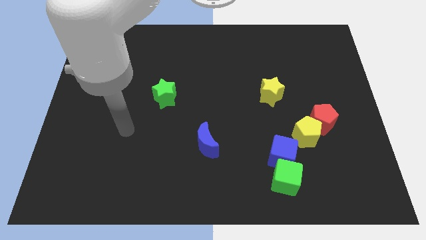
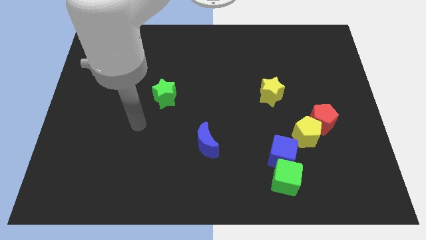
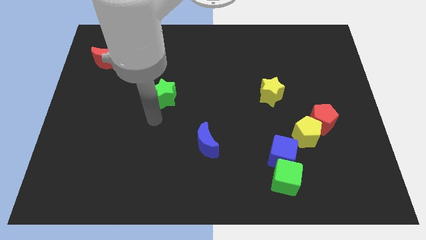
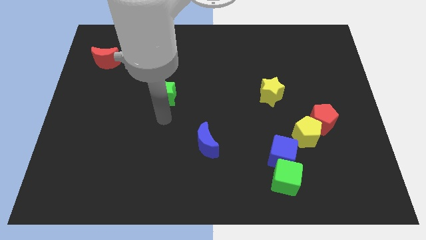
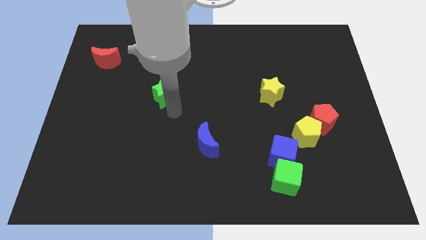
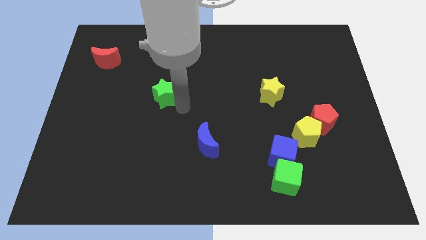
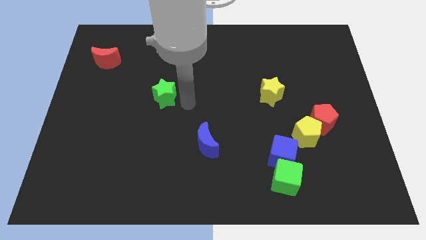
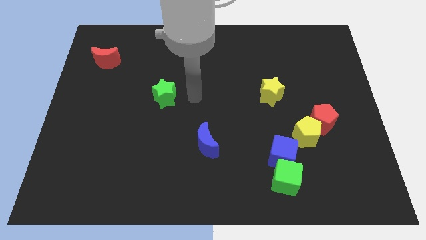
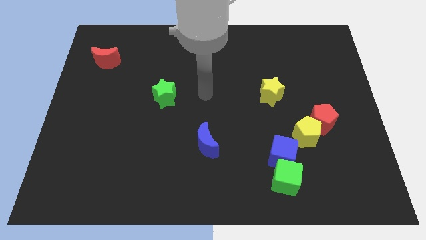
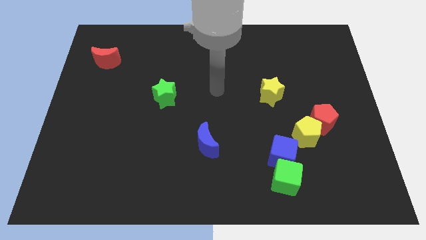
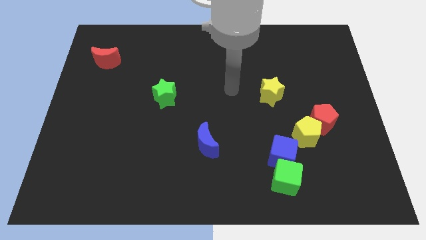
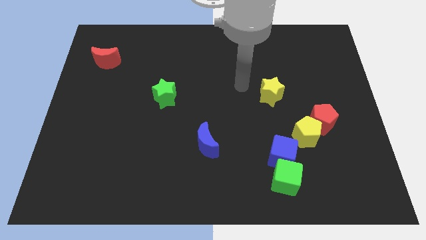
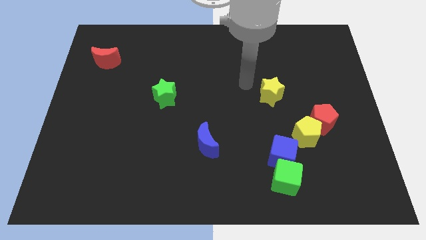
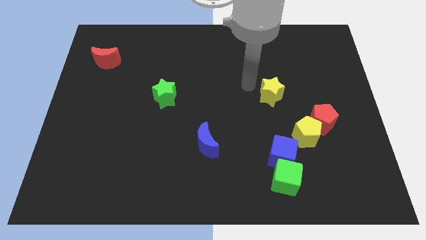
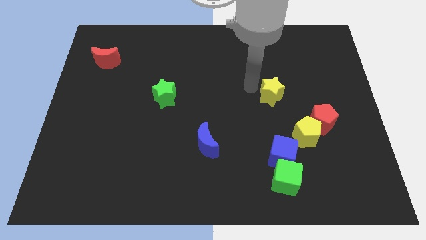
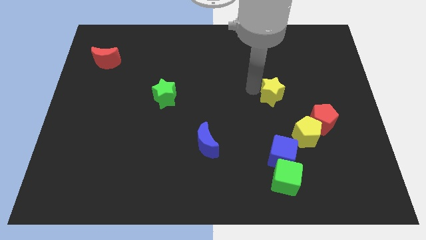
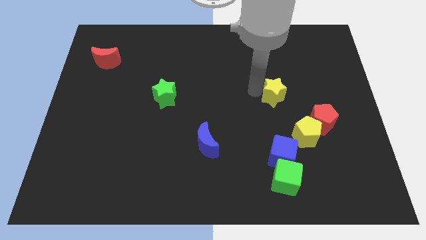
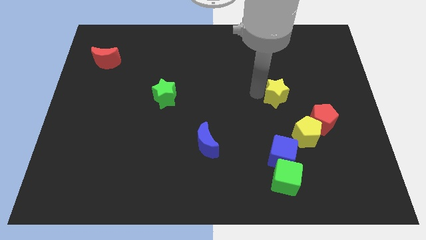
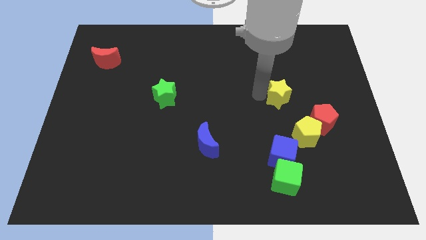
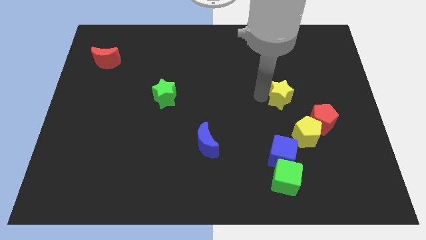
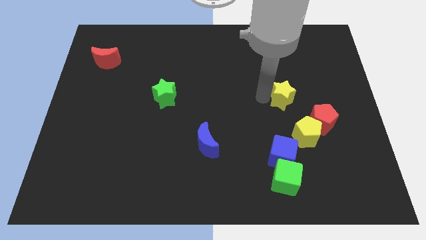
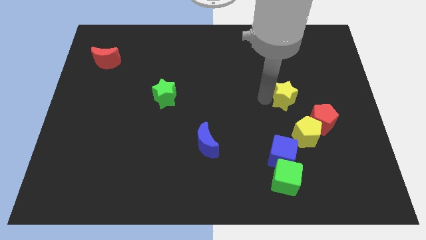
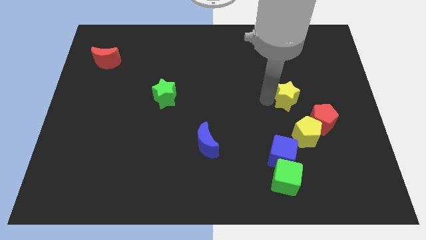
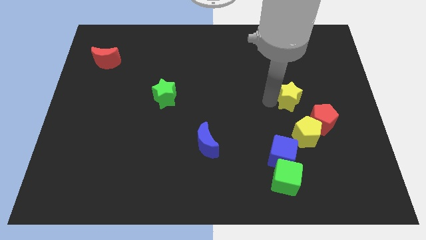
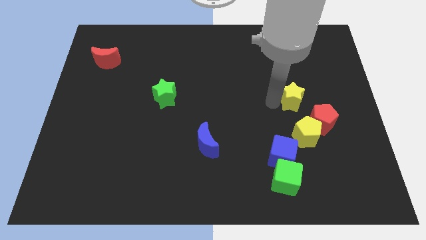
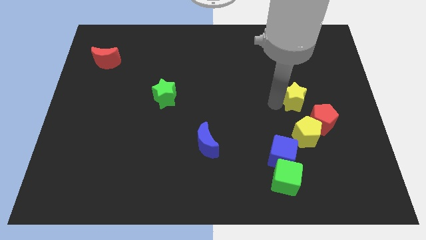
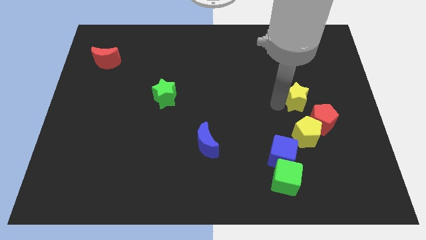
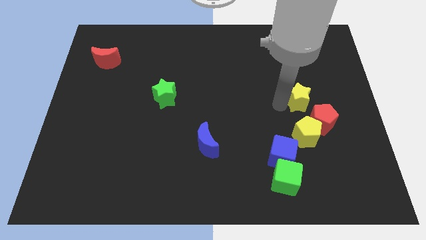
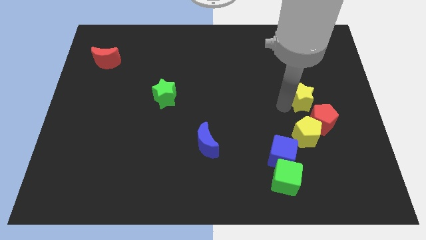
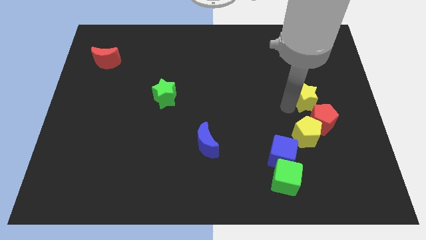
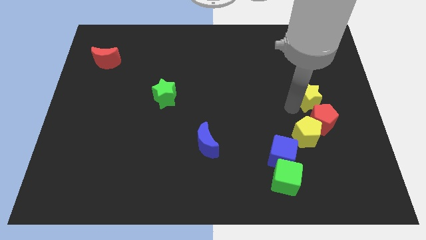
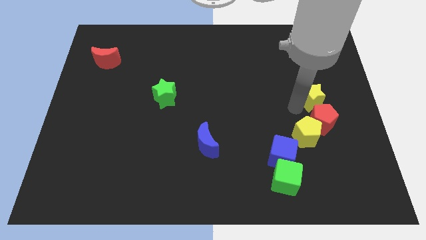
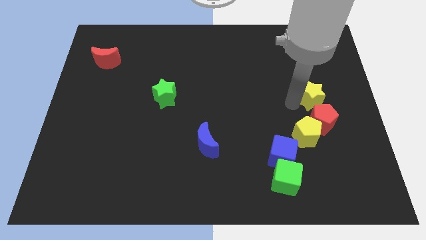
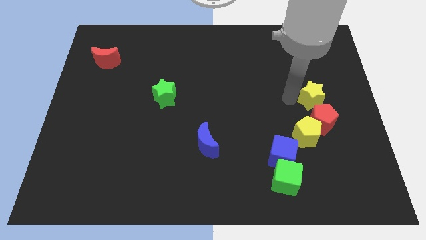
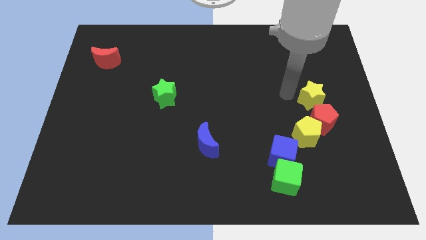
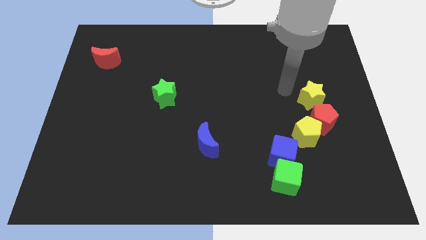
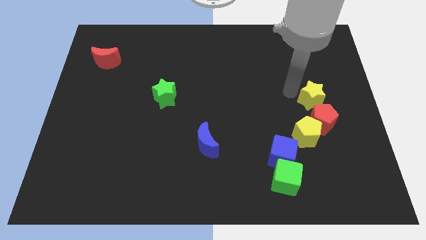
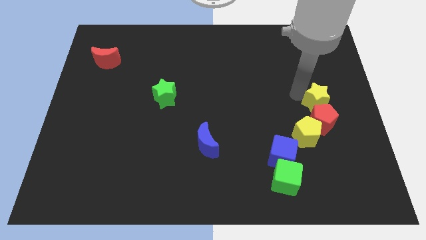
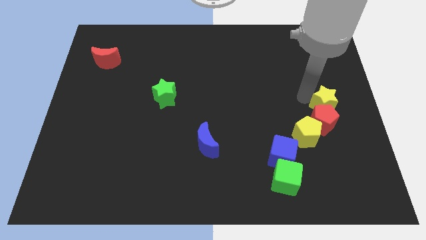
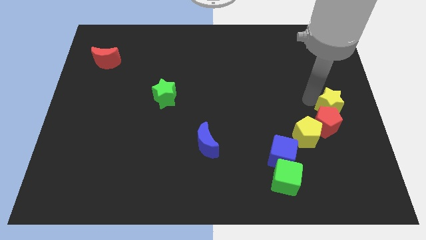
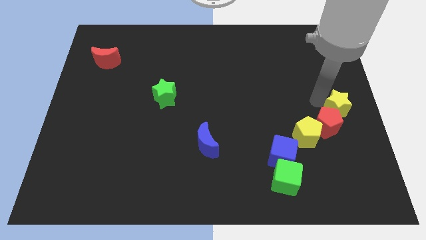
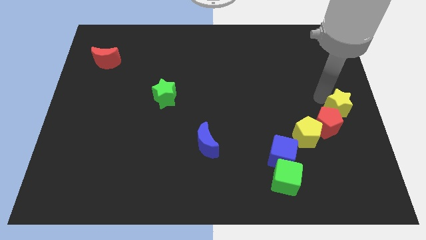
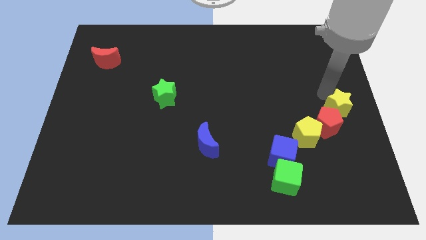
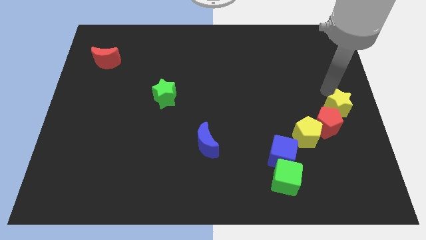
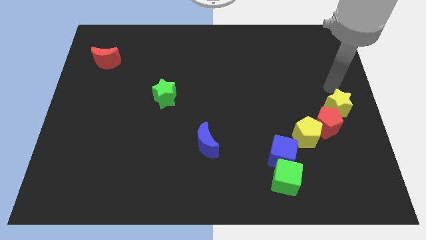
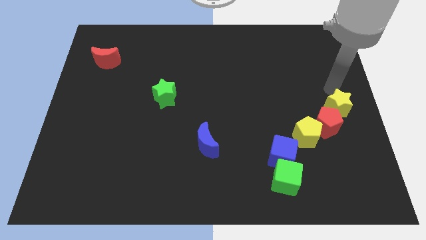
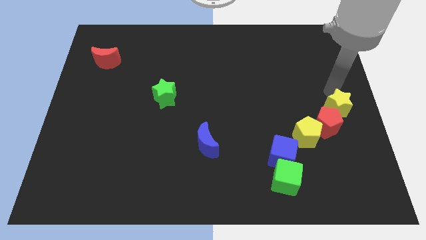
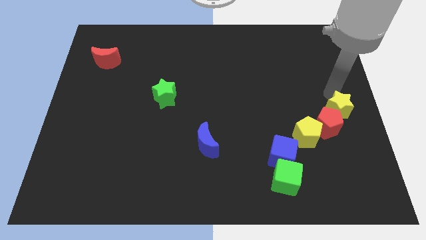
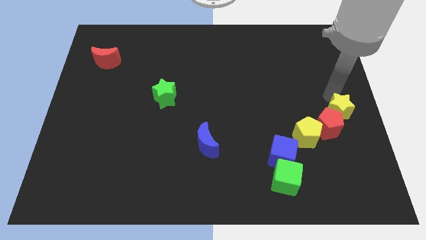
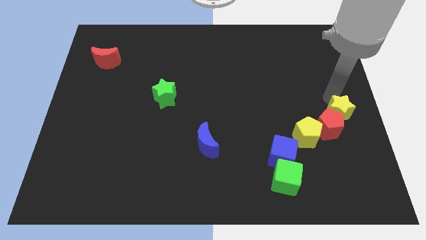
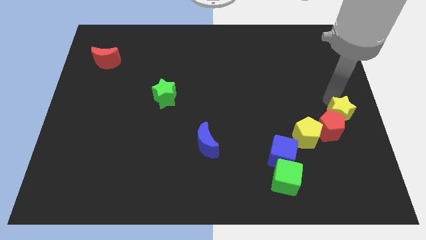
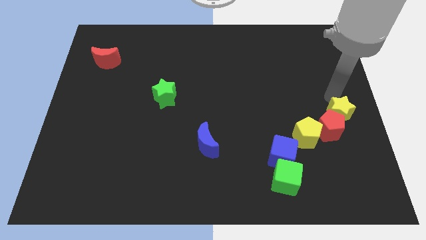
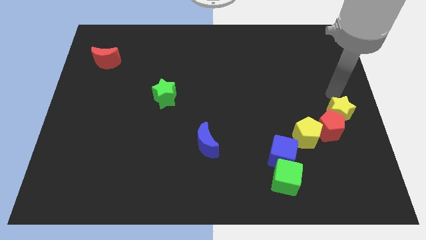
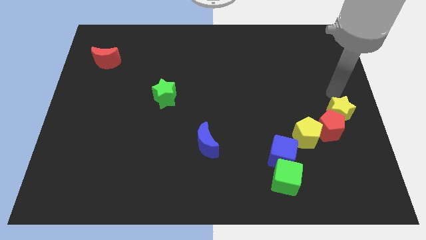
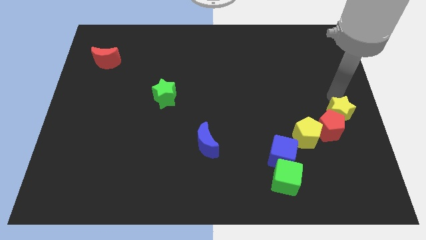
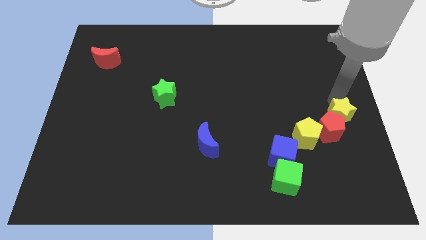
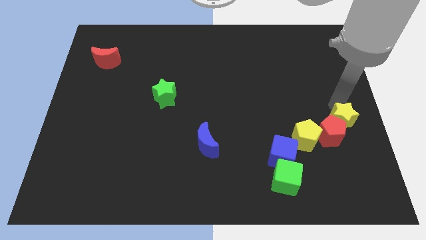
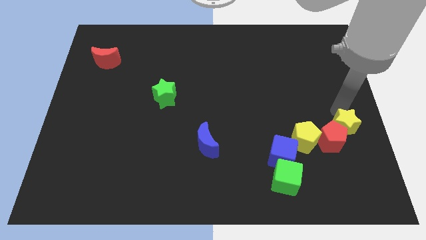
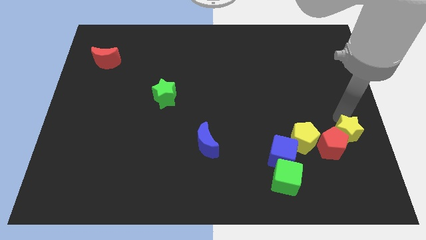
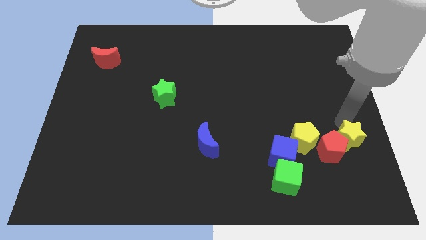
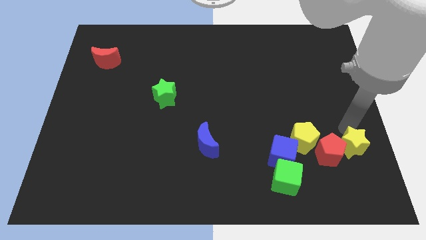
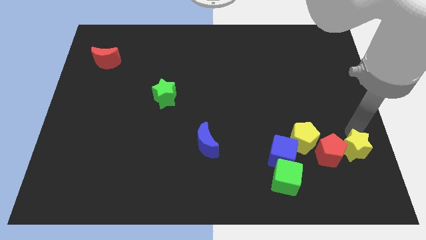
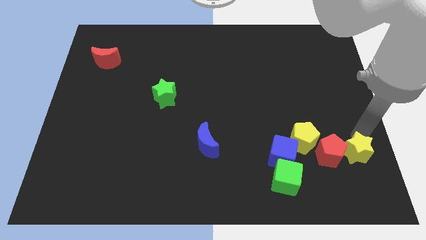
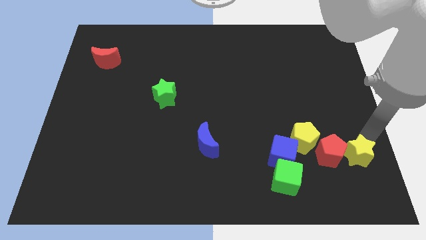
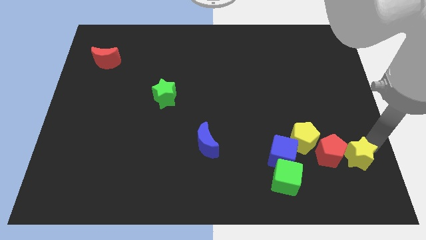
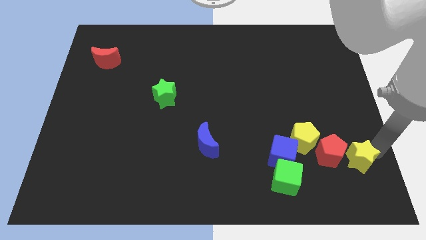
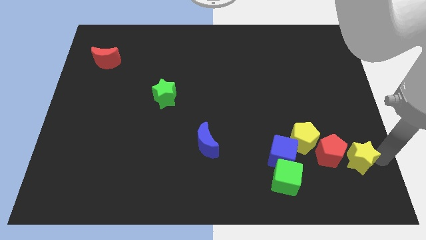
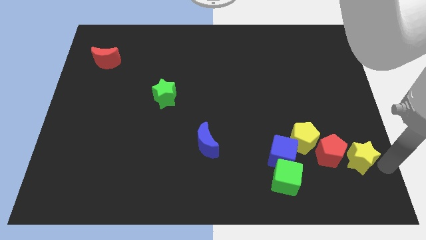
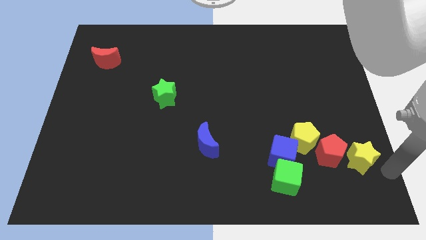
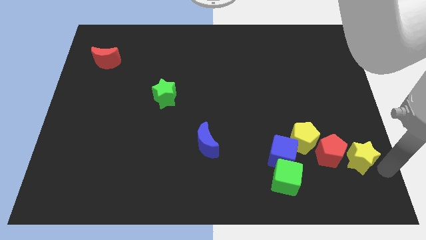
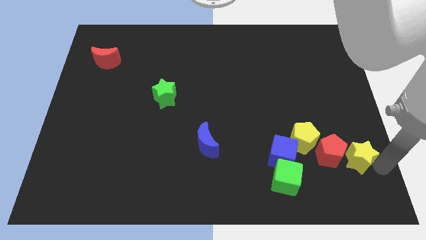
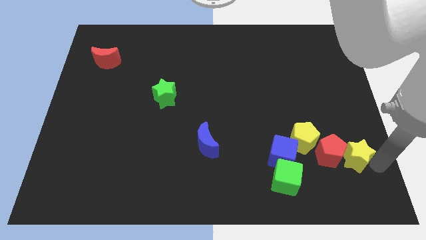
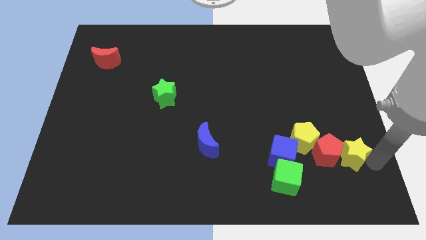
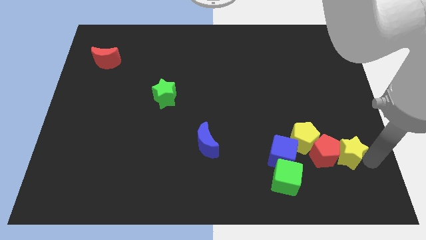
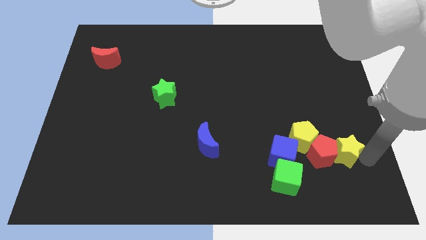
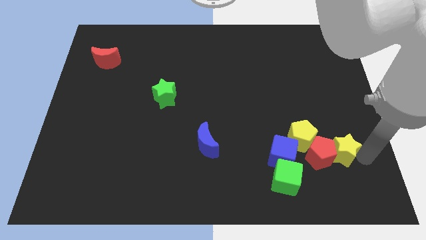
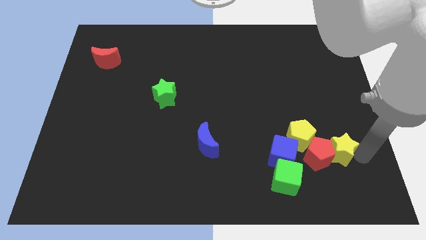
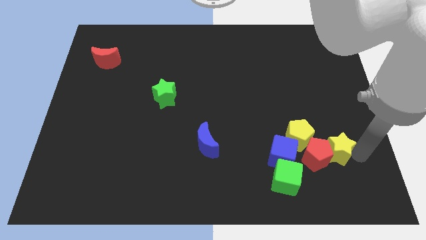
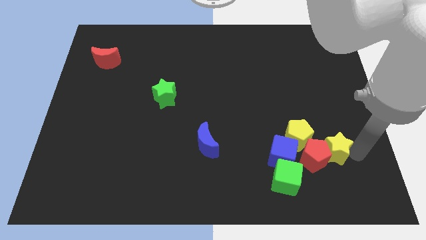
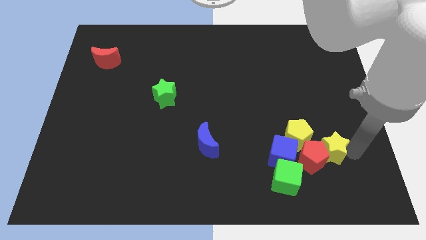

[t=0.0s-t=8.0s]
put the yellow star diagonally up and to the right of the green cube
